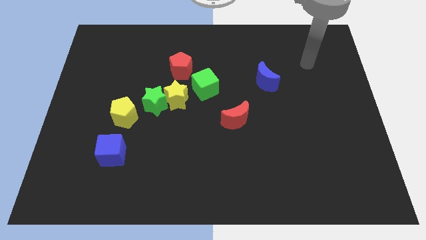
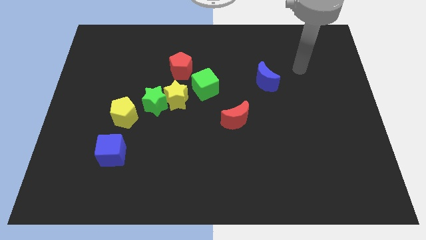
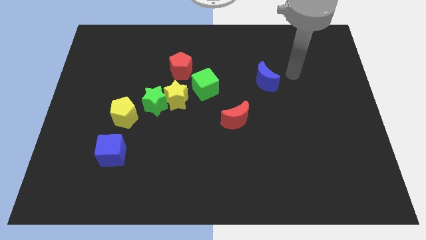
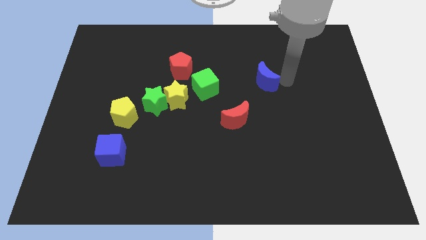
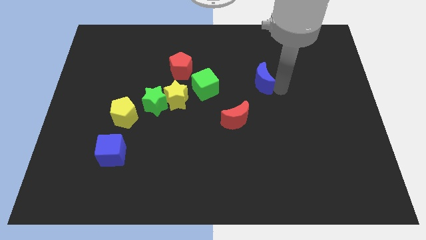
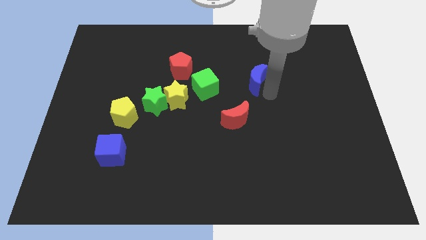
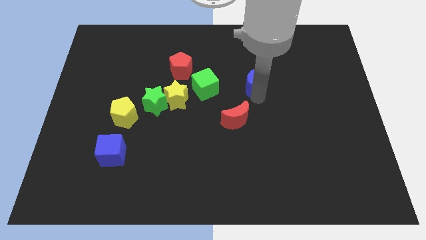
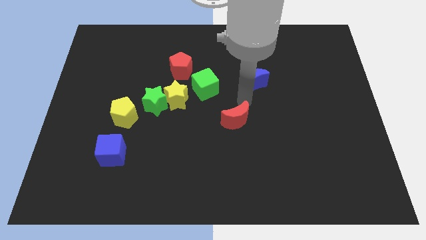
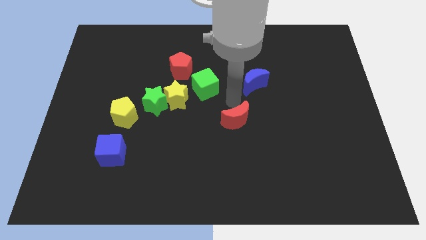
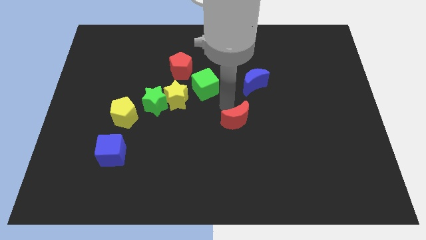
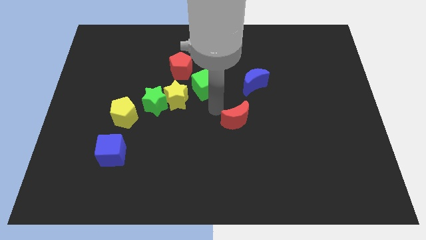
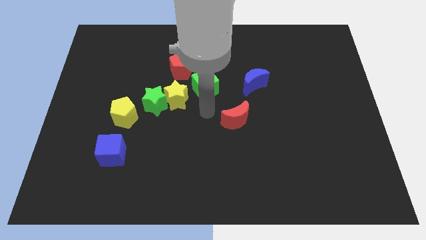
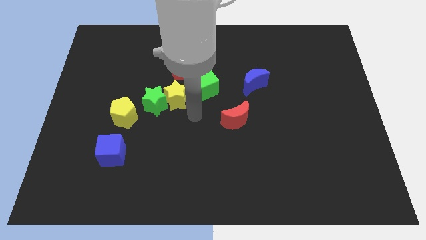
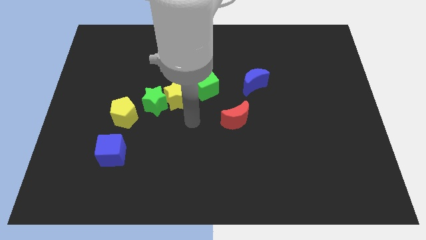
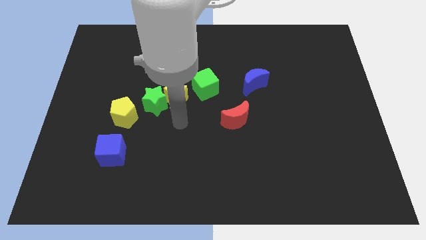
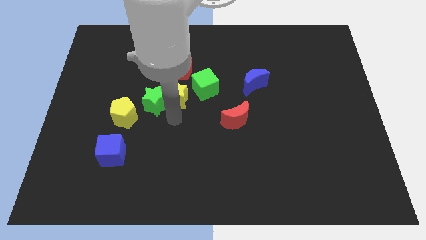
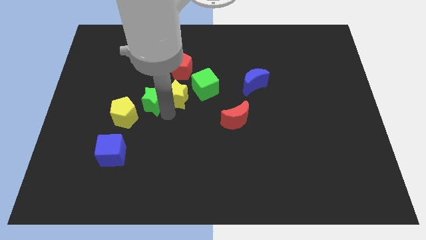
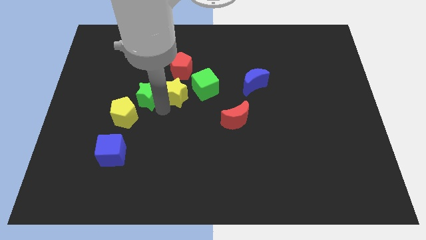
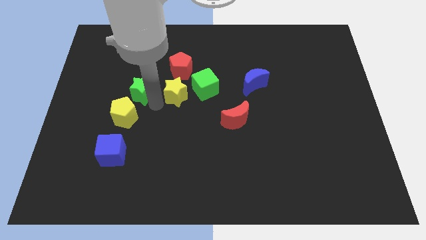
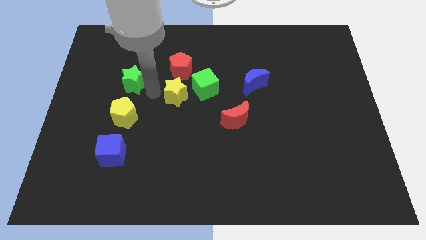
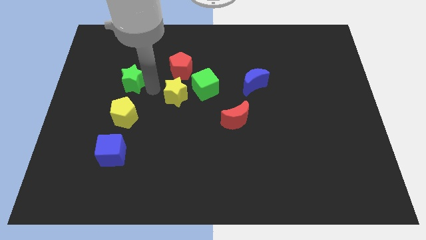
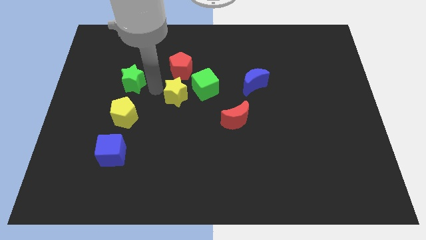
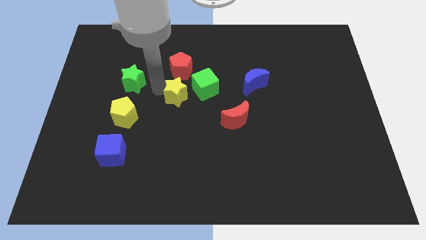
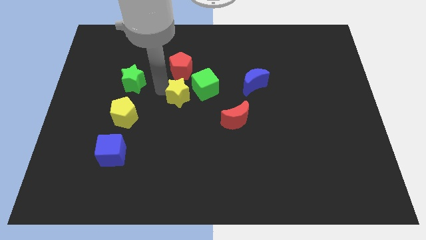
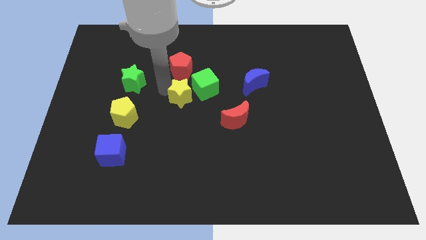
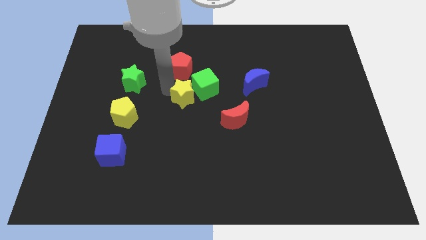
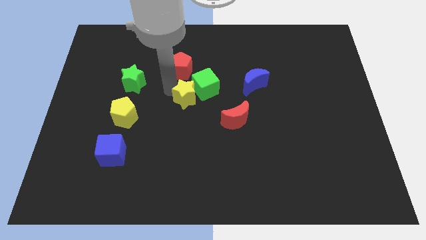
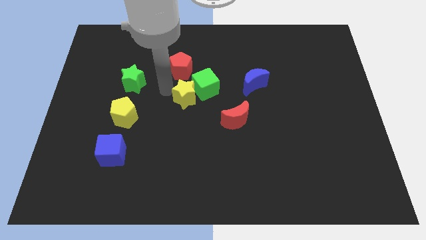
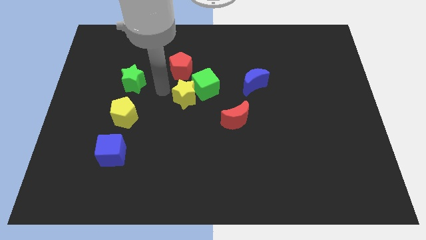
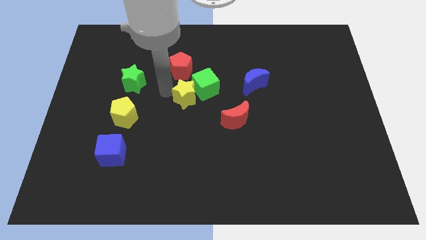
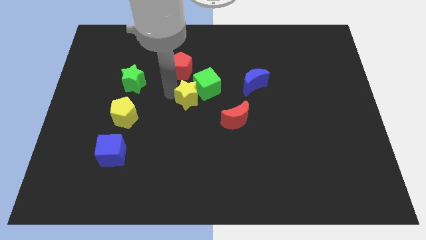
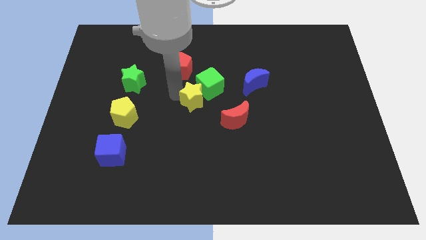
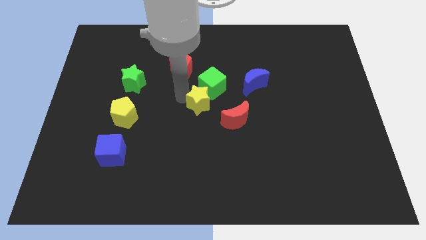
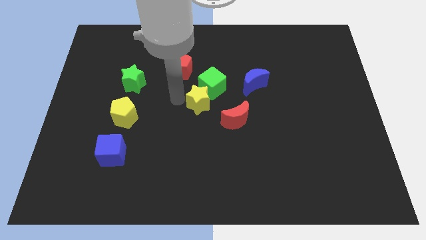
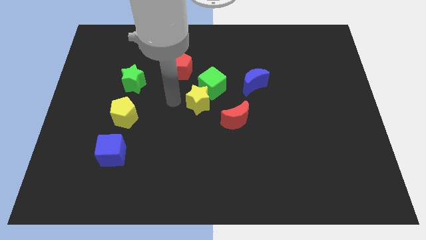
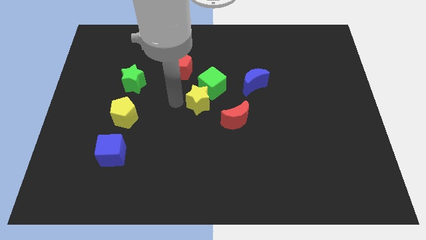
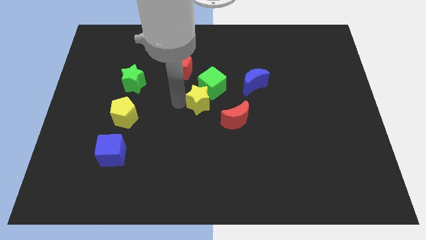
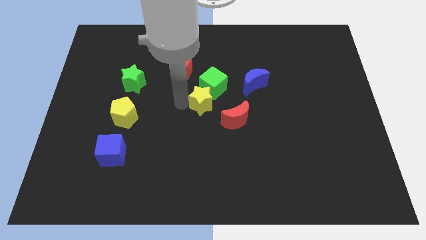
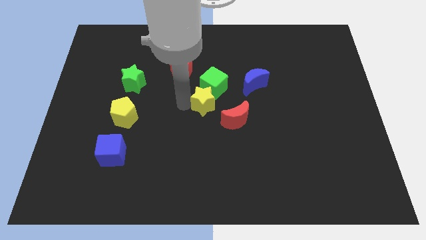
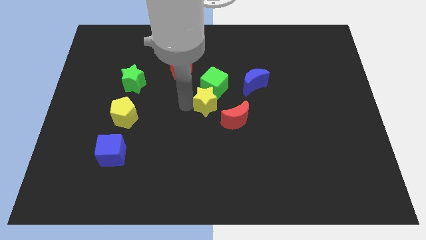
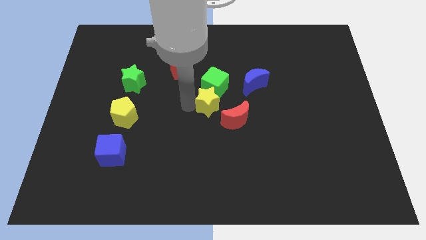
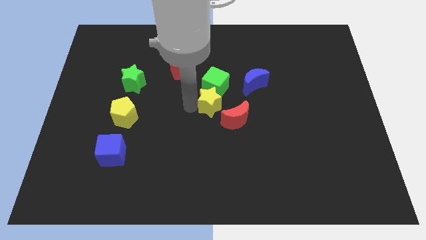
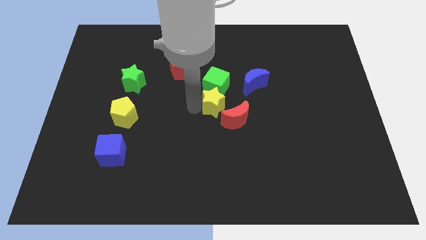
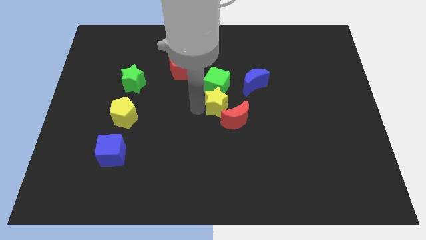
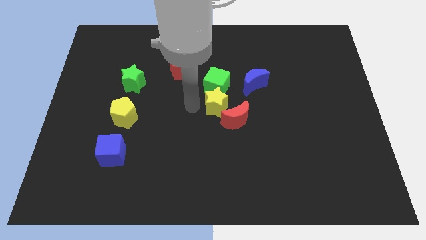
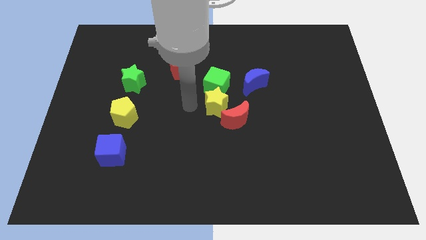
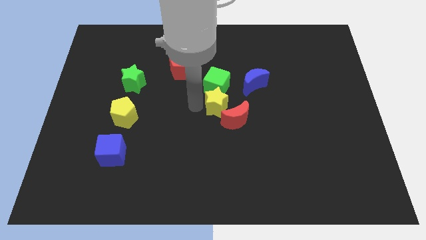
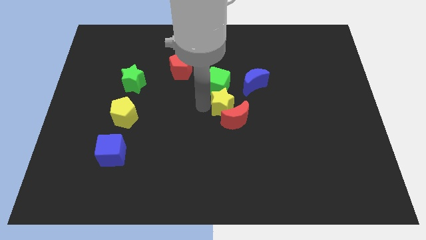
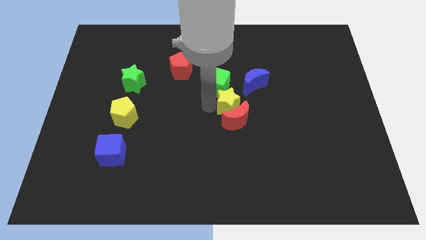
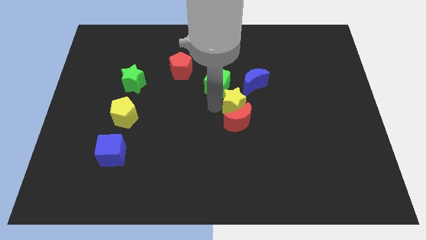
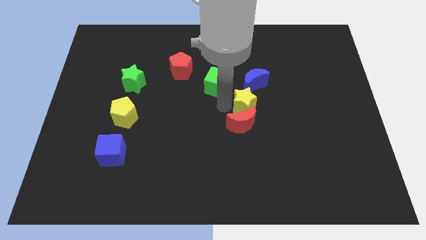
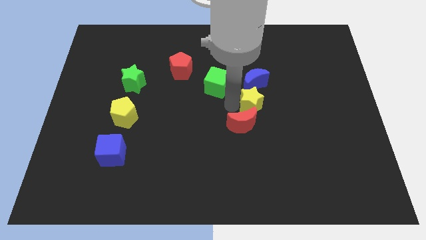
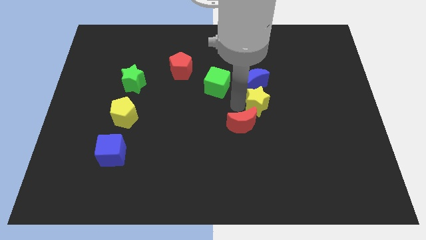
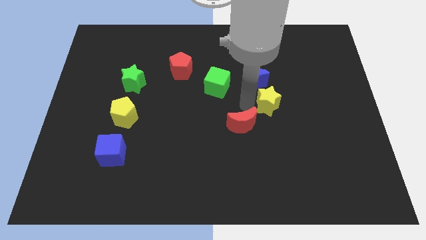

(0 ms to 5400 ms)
move the yellow star to the right

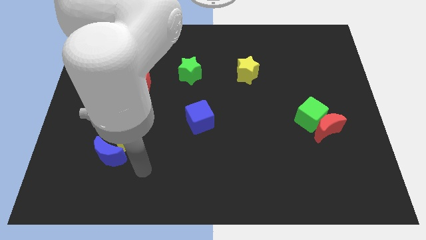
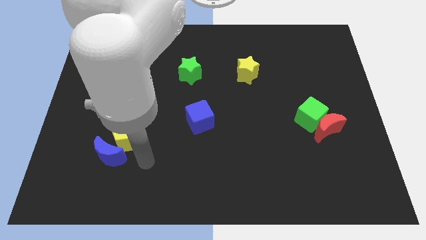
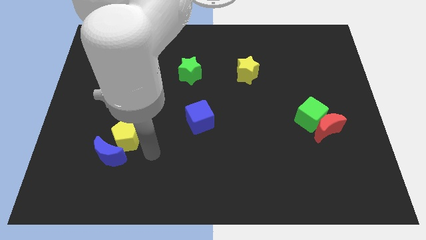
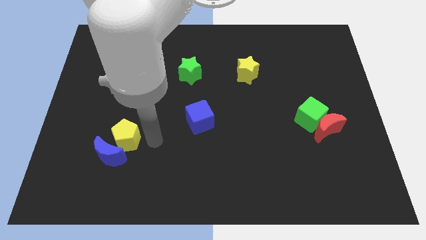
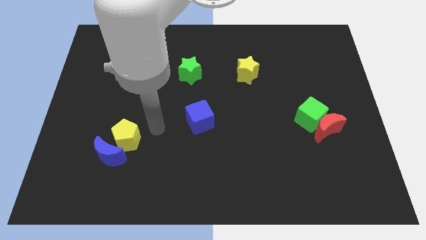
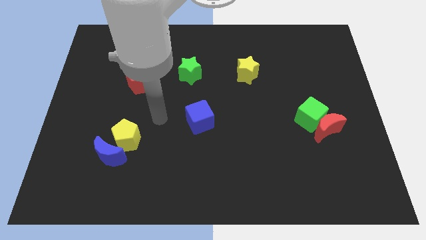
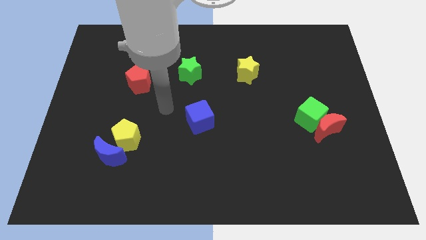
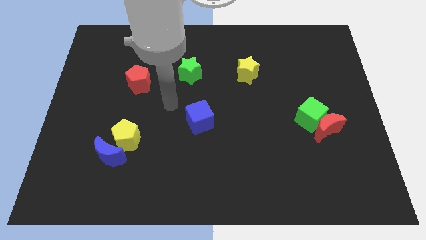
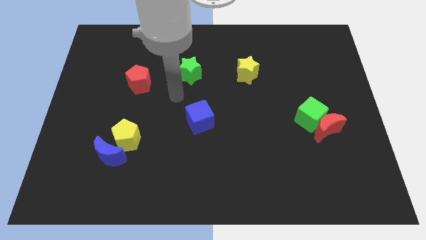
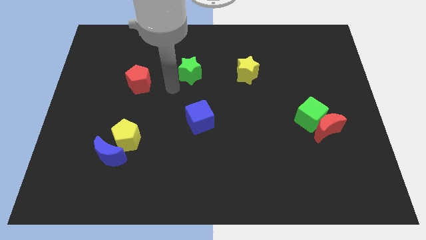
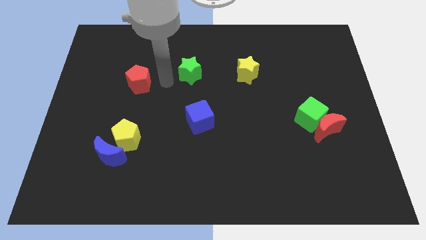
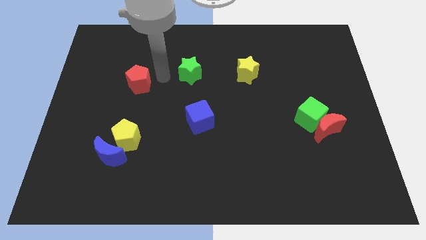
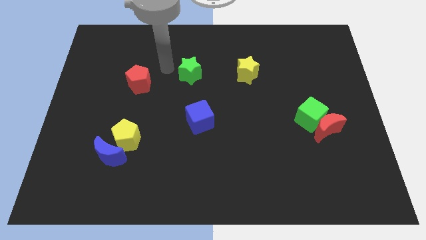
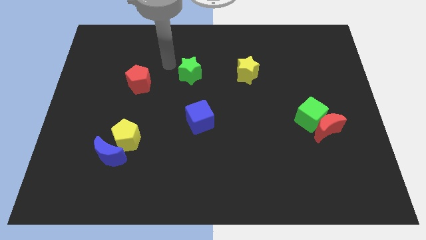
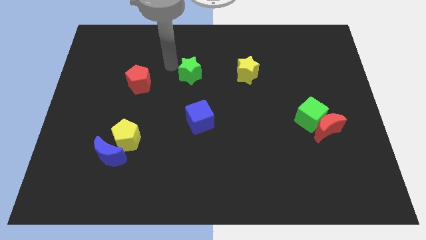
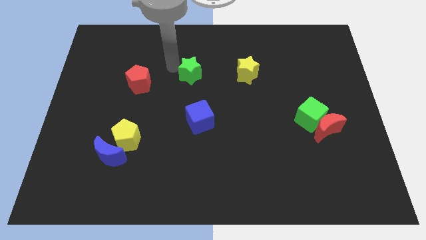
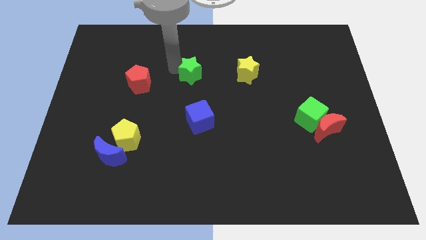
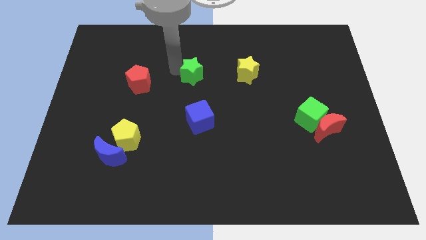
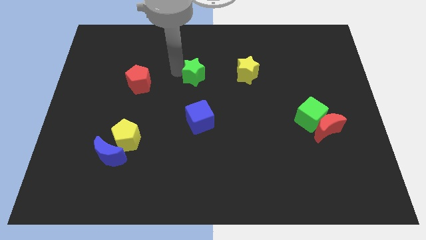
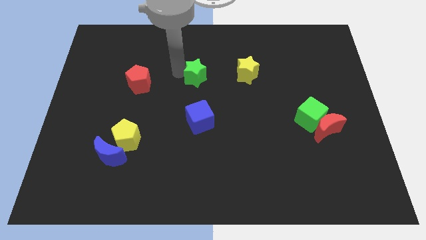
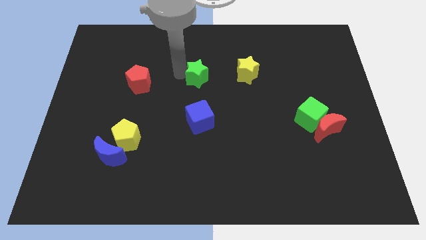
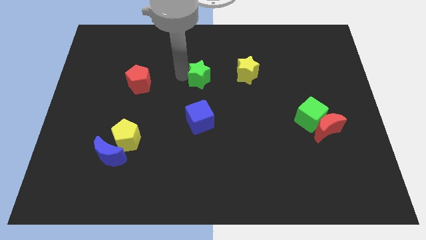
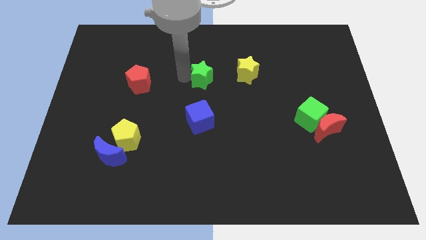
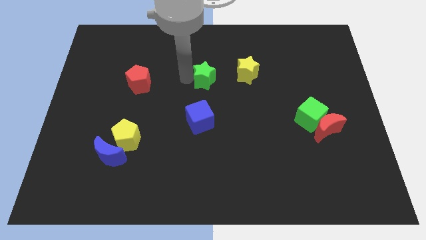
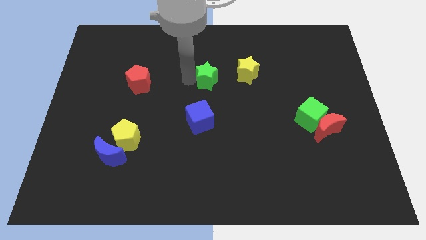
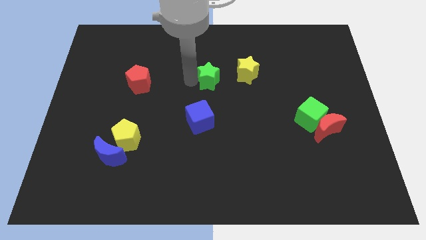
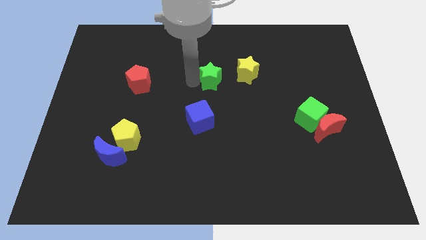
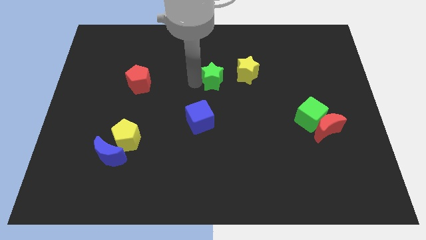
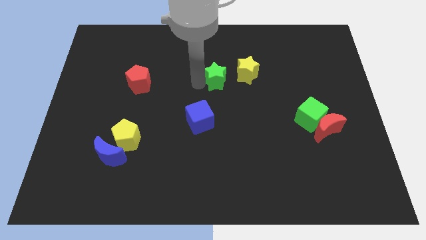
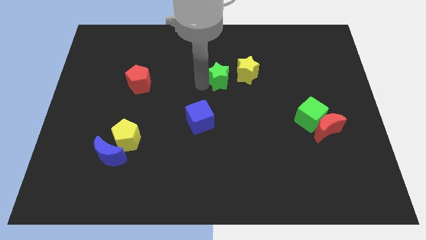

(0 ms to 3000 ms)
push the green star right a little bit
